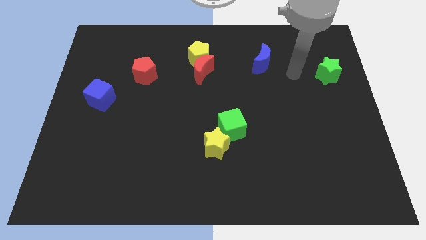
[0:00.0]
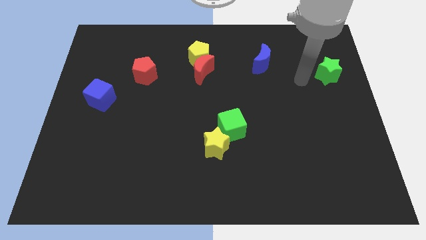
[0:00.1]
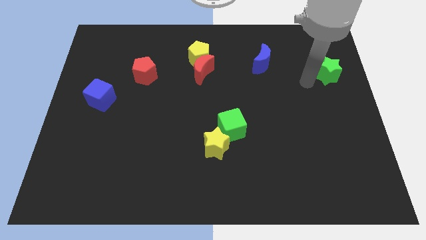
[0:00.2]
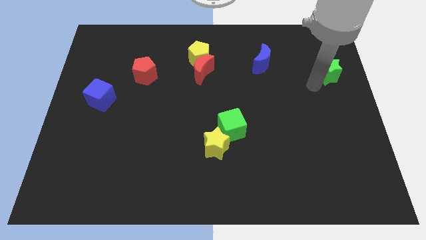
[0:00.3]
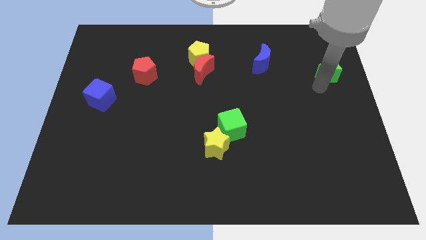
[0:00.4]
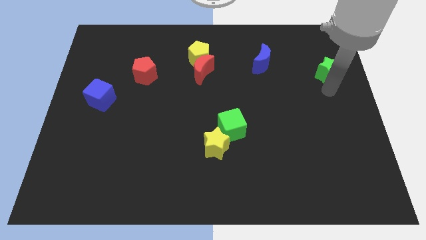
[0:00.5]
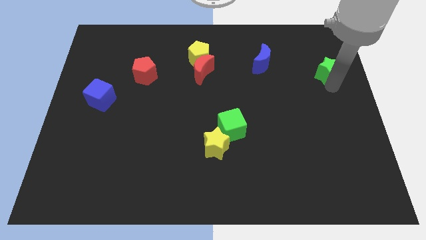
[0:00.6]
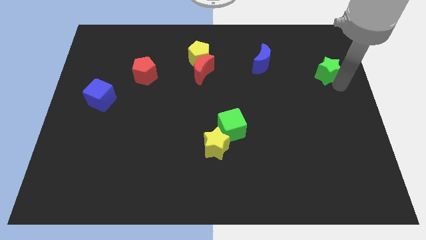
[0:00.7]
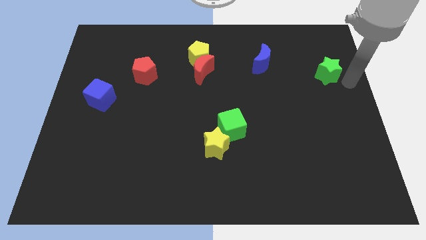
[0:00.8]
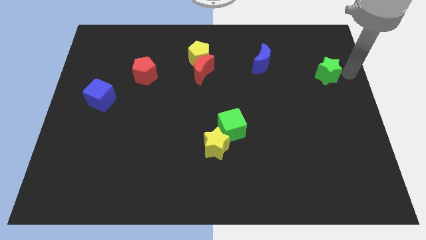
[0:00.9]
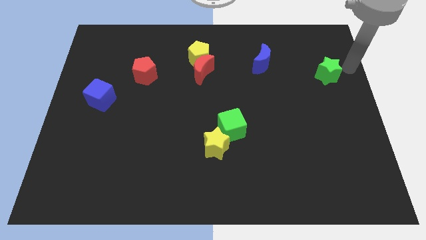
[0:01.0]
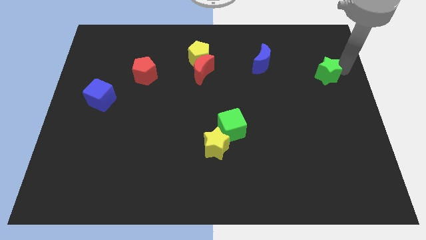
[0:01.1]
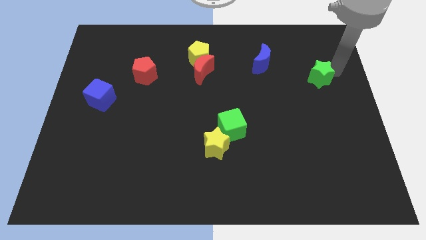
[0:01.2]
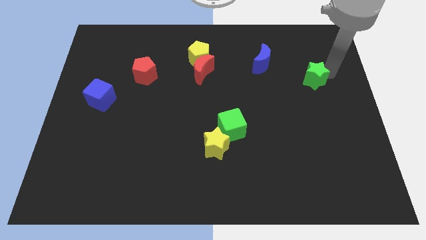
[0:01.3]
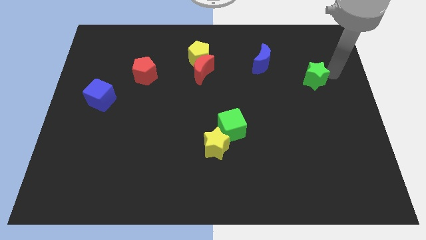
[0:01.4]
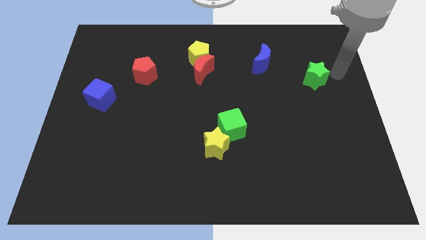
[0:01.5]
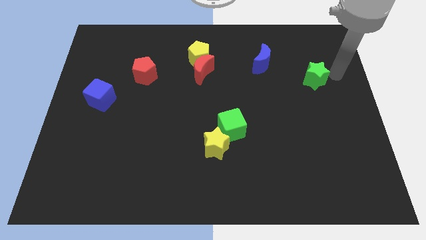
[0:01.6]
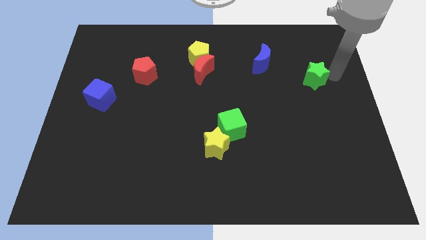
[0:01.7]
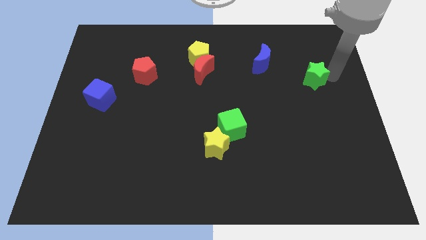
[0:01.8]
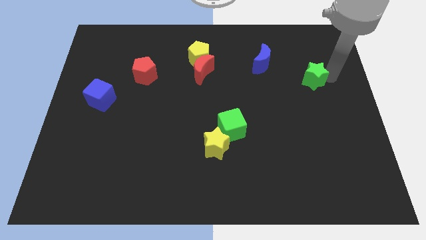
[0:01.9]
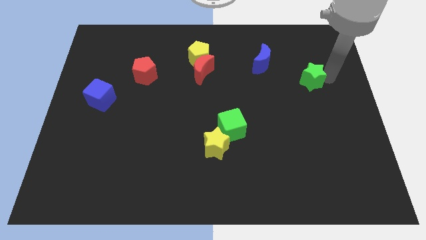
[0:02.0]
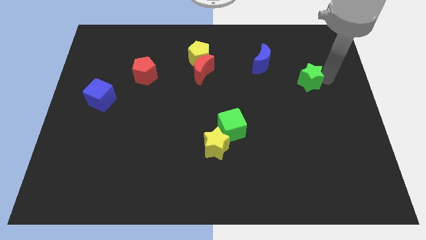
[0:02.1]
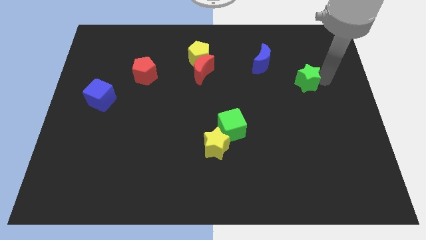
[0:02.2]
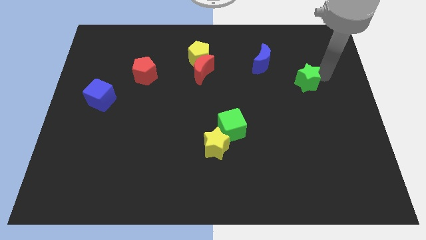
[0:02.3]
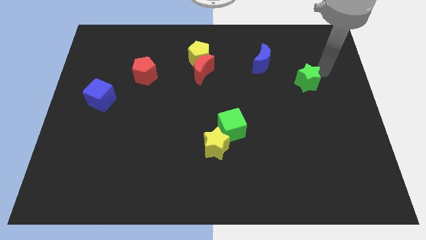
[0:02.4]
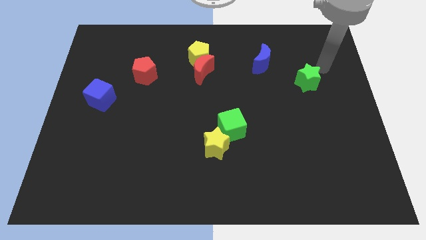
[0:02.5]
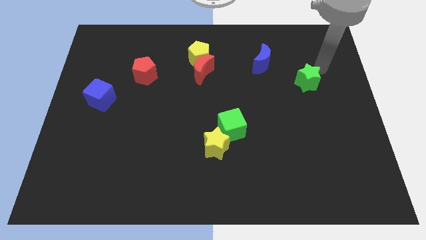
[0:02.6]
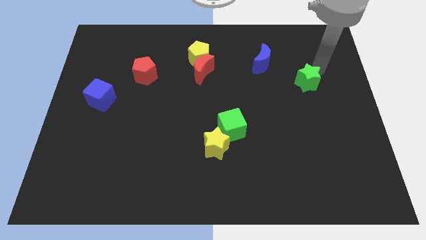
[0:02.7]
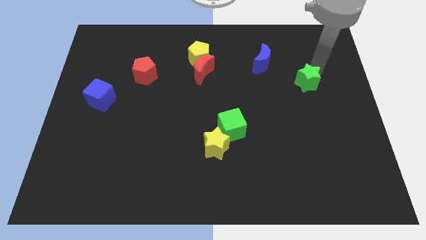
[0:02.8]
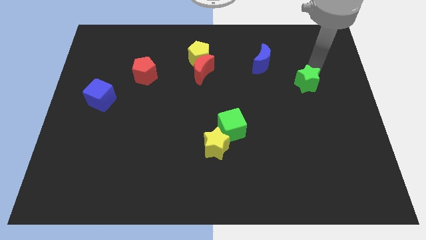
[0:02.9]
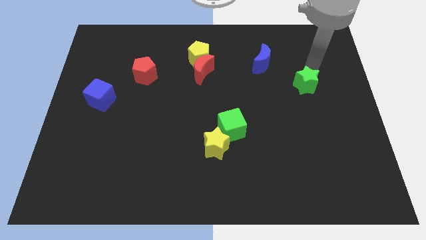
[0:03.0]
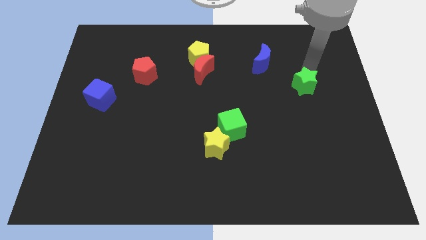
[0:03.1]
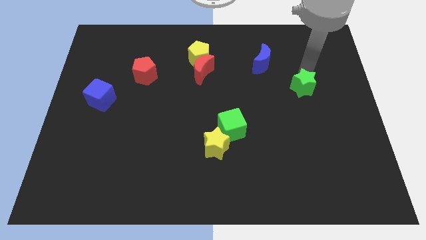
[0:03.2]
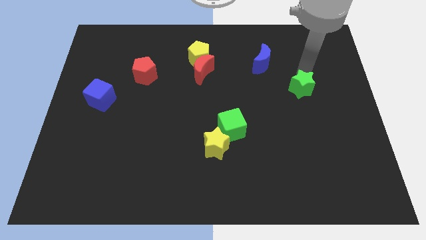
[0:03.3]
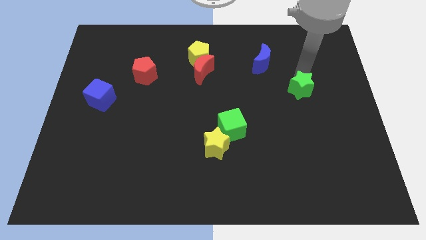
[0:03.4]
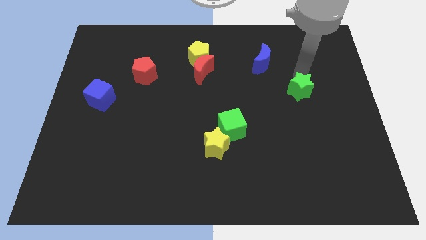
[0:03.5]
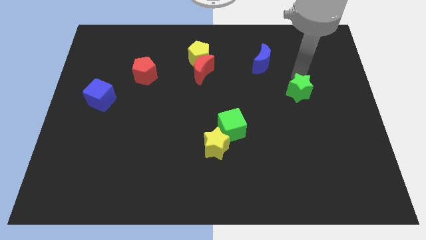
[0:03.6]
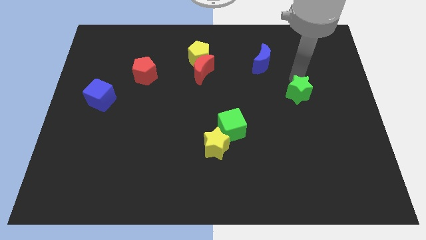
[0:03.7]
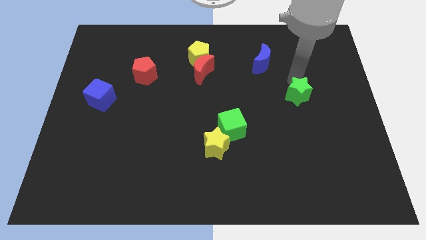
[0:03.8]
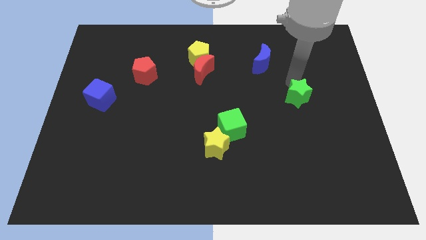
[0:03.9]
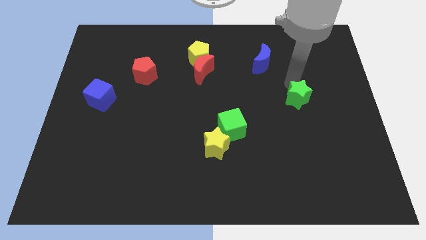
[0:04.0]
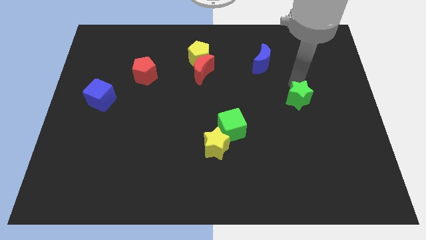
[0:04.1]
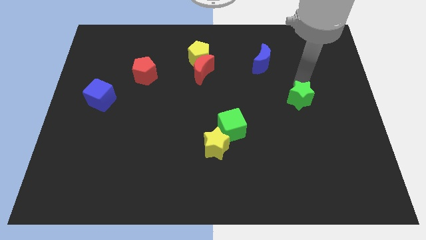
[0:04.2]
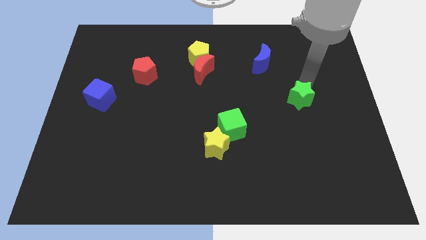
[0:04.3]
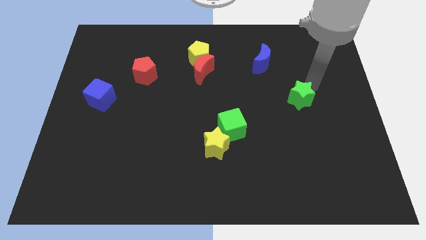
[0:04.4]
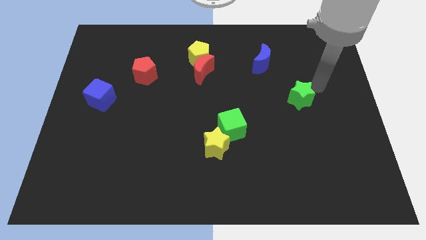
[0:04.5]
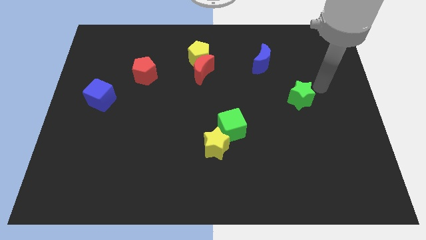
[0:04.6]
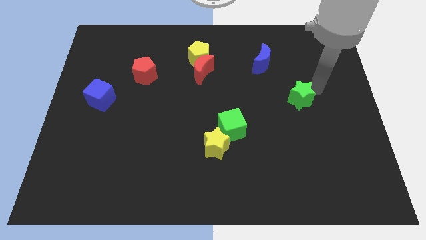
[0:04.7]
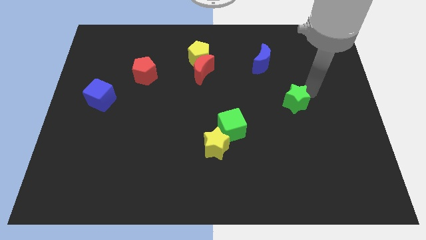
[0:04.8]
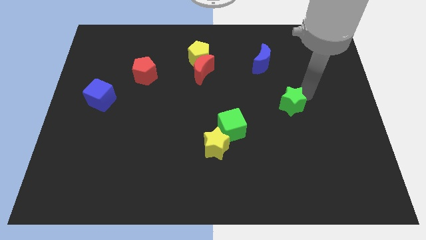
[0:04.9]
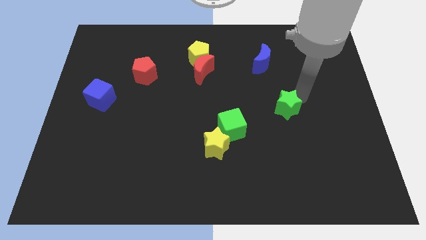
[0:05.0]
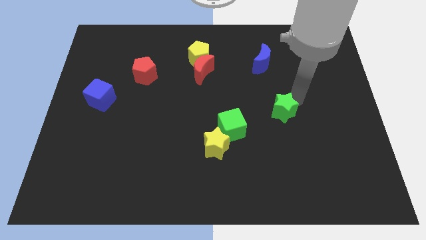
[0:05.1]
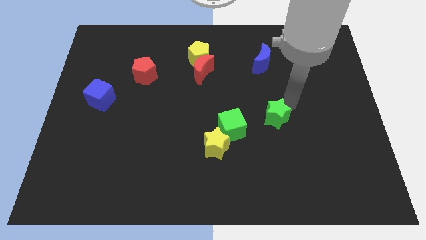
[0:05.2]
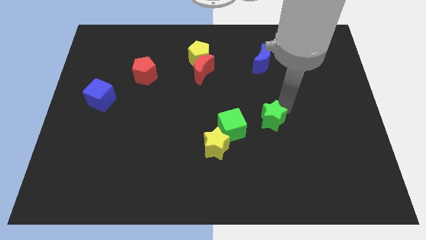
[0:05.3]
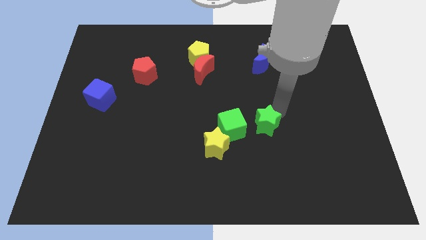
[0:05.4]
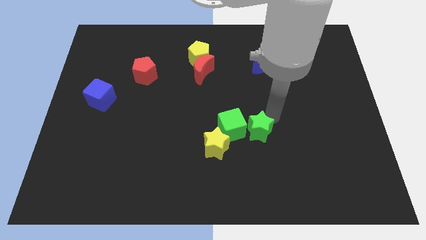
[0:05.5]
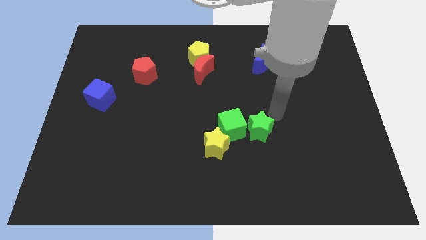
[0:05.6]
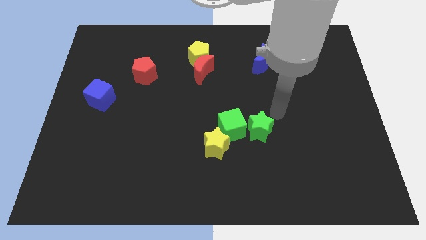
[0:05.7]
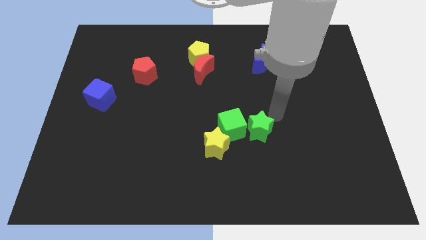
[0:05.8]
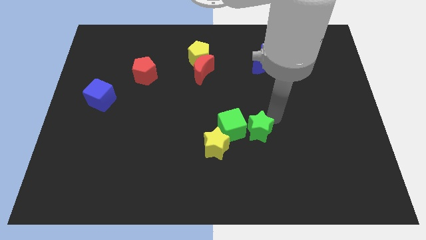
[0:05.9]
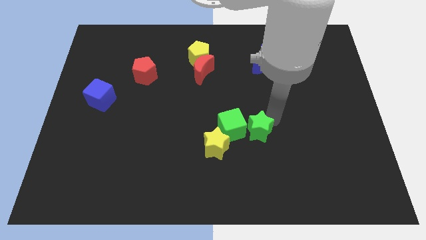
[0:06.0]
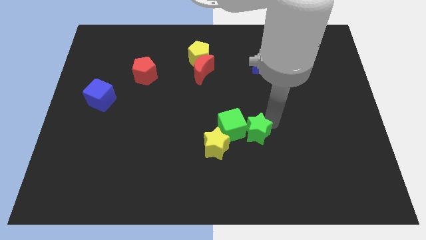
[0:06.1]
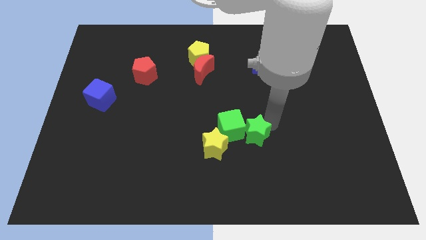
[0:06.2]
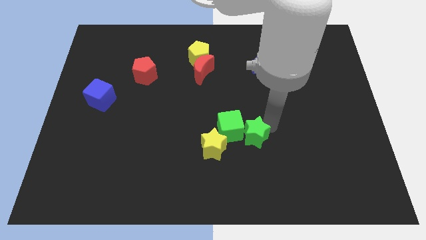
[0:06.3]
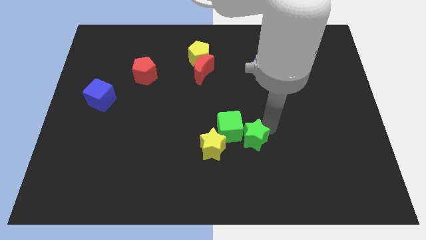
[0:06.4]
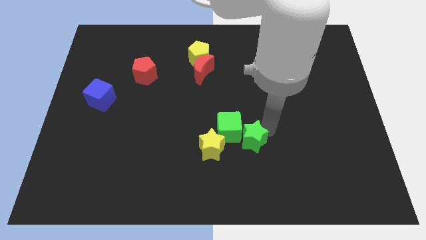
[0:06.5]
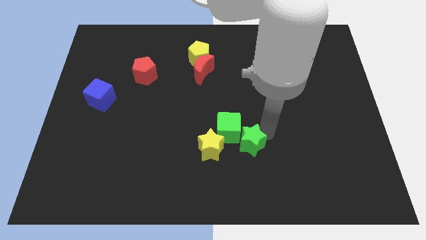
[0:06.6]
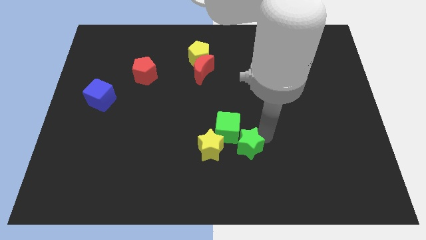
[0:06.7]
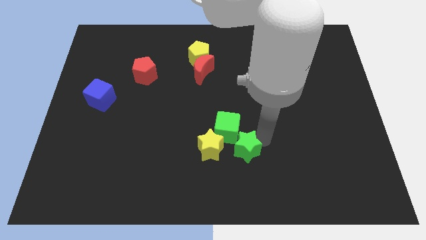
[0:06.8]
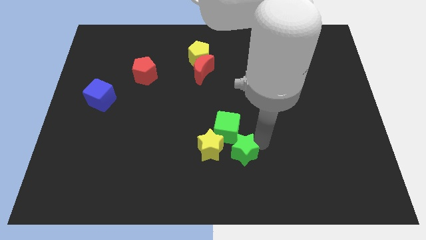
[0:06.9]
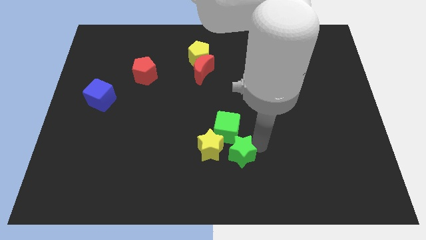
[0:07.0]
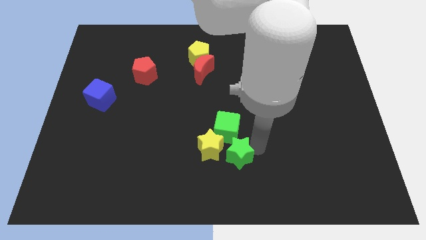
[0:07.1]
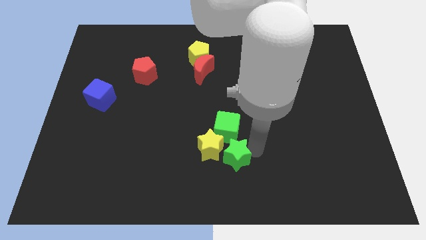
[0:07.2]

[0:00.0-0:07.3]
slide the green star to the yellow star
